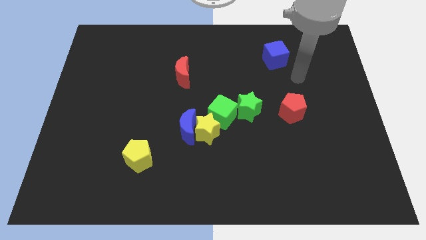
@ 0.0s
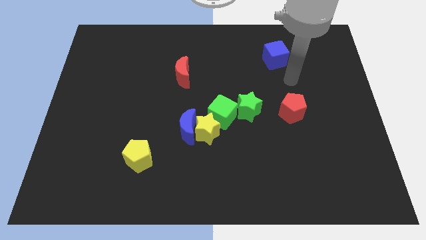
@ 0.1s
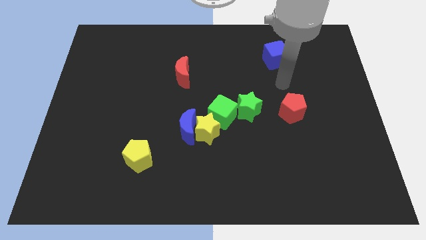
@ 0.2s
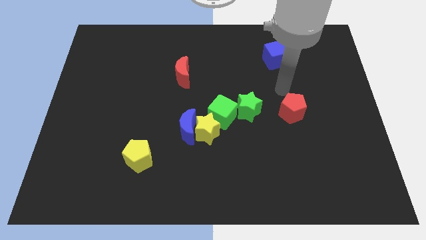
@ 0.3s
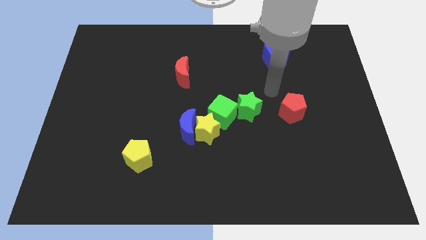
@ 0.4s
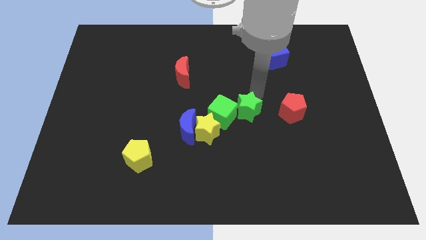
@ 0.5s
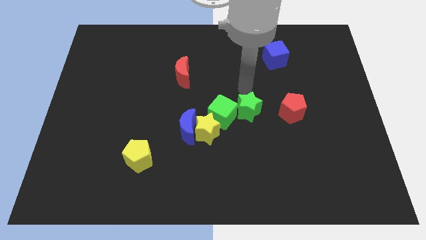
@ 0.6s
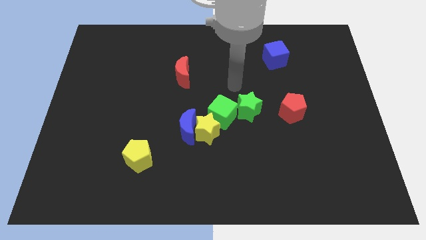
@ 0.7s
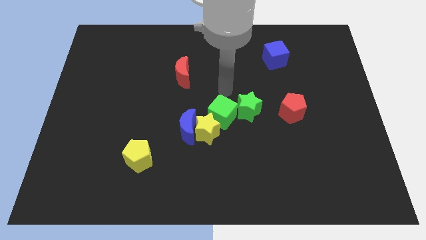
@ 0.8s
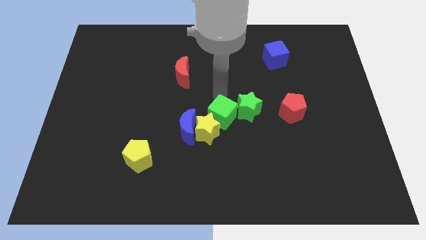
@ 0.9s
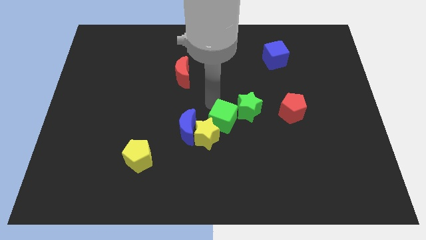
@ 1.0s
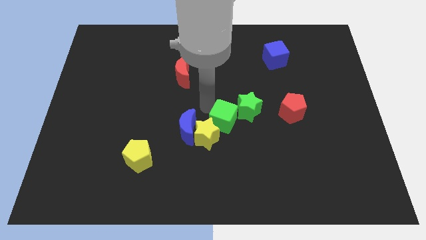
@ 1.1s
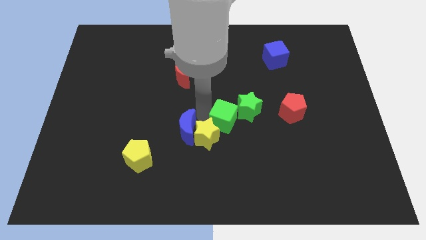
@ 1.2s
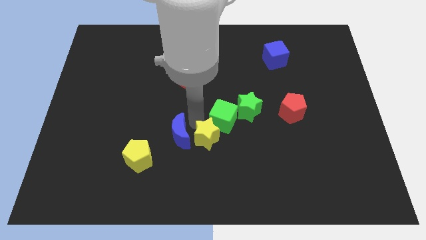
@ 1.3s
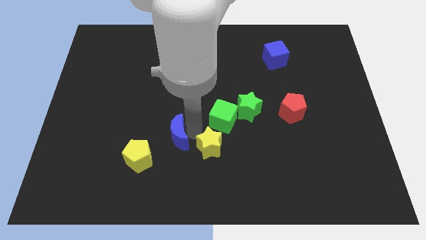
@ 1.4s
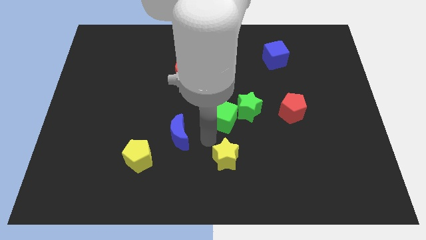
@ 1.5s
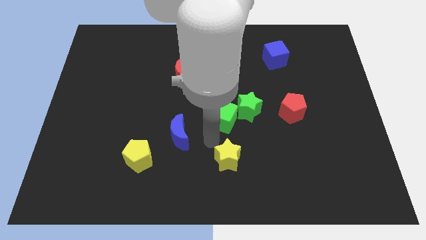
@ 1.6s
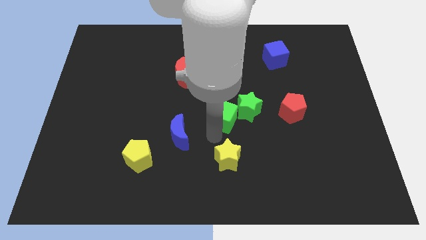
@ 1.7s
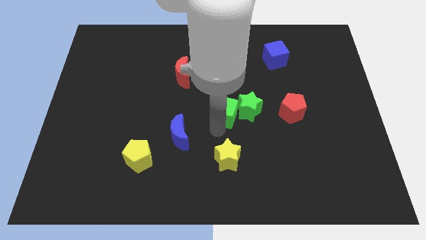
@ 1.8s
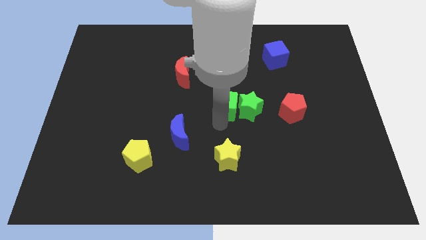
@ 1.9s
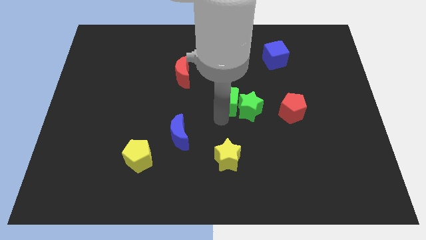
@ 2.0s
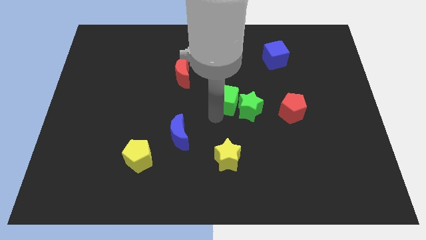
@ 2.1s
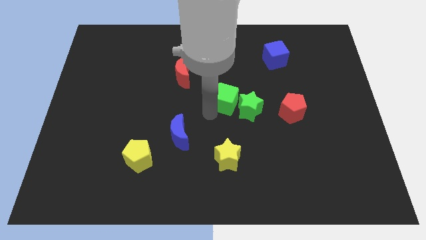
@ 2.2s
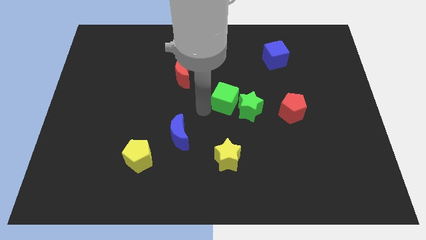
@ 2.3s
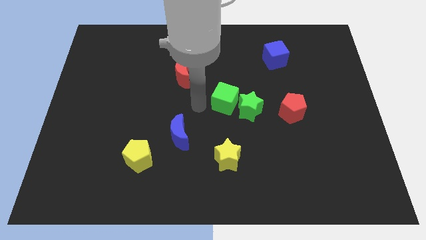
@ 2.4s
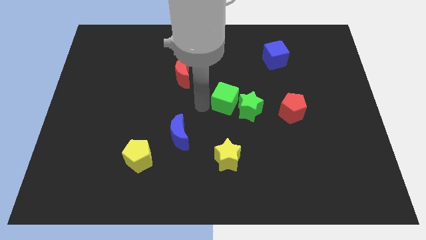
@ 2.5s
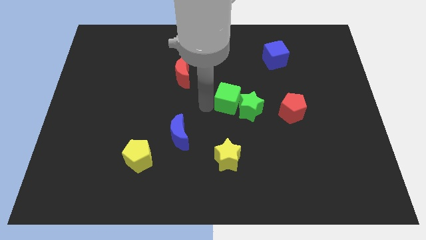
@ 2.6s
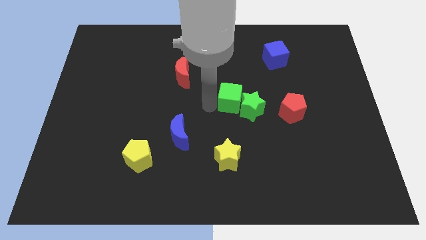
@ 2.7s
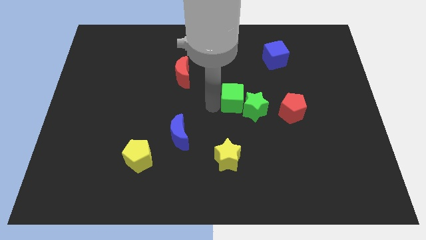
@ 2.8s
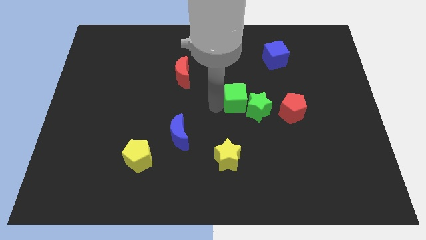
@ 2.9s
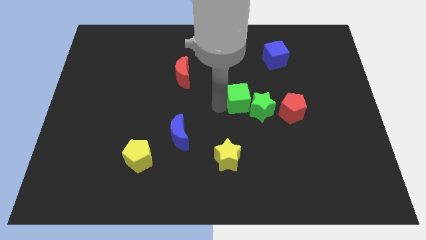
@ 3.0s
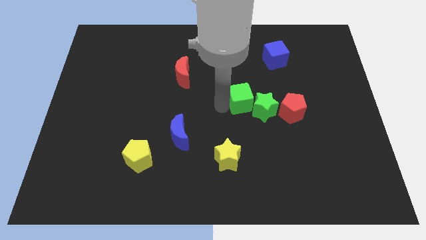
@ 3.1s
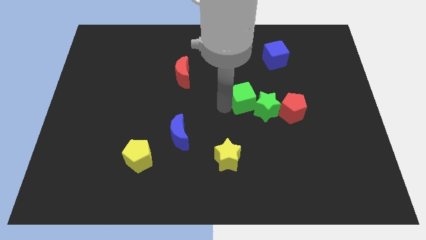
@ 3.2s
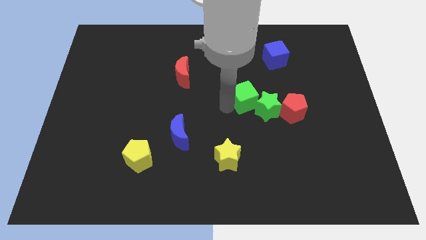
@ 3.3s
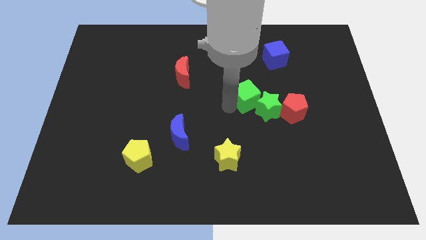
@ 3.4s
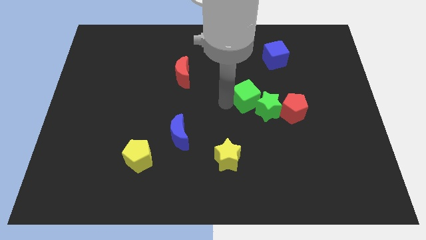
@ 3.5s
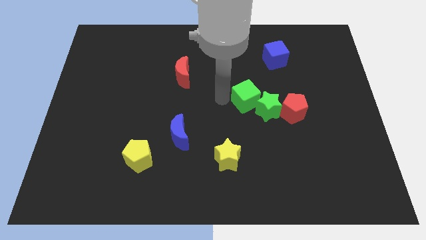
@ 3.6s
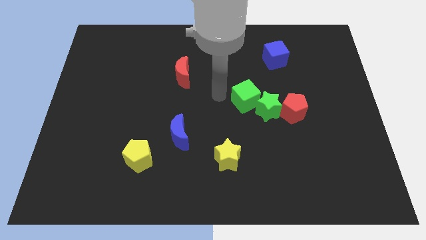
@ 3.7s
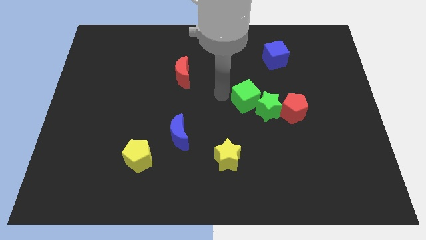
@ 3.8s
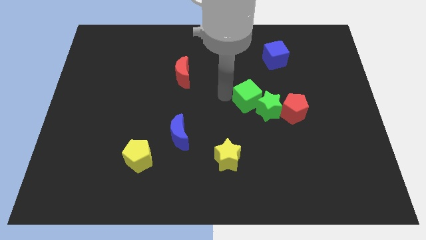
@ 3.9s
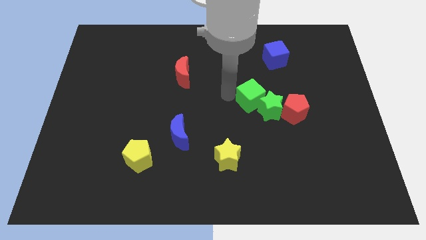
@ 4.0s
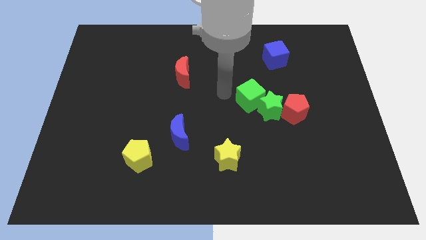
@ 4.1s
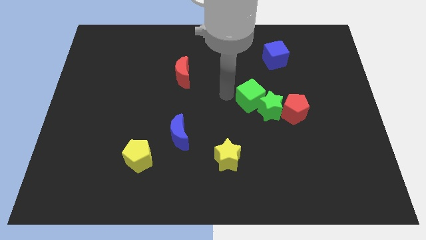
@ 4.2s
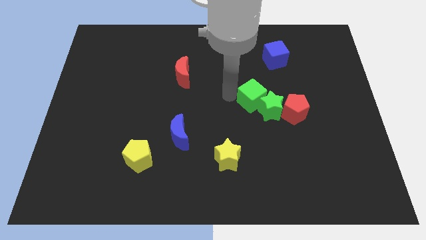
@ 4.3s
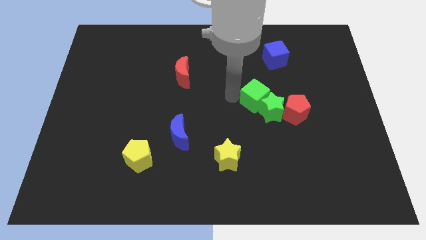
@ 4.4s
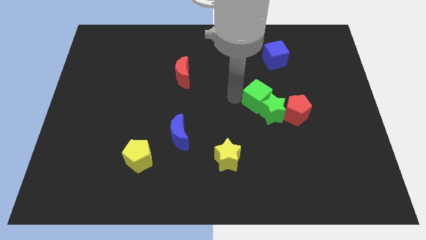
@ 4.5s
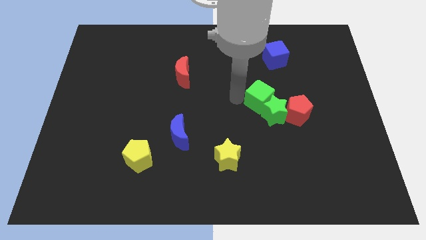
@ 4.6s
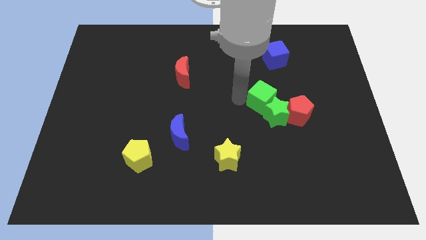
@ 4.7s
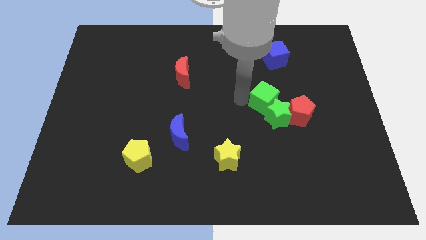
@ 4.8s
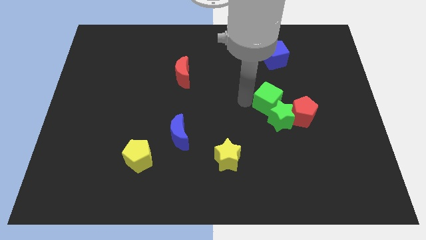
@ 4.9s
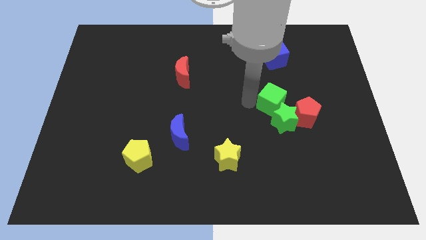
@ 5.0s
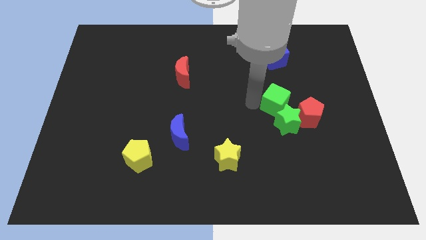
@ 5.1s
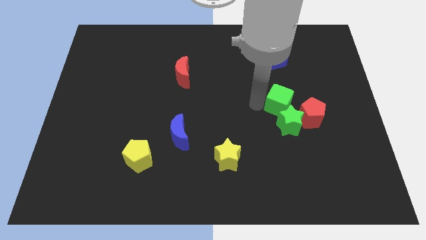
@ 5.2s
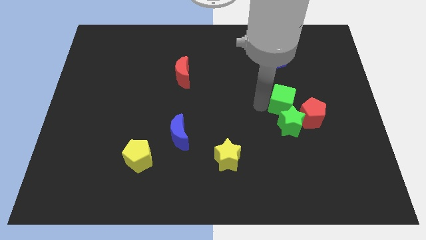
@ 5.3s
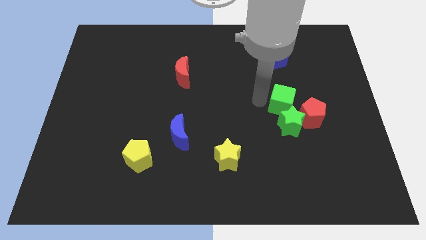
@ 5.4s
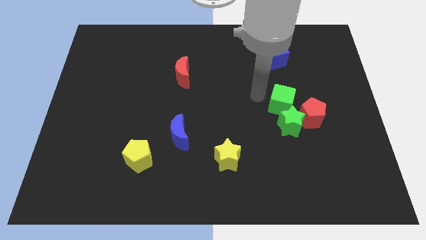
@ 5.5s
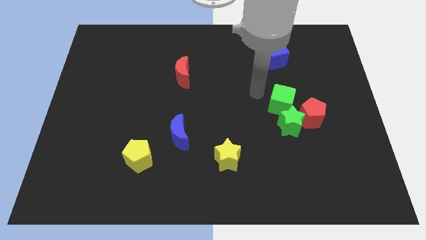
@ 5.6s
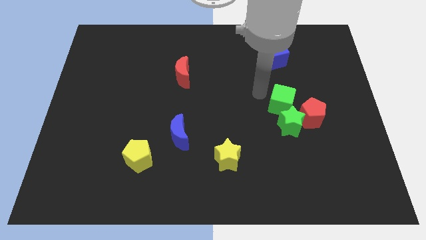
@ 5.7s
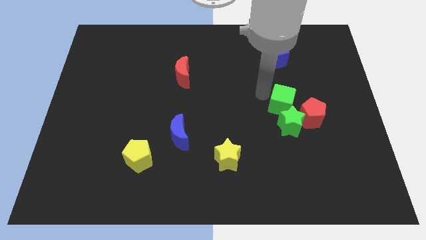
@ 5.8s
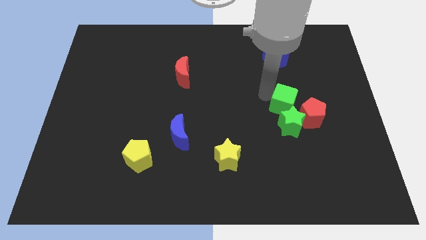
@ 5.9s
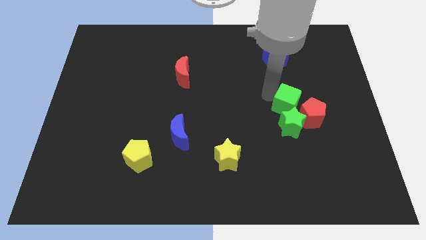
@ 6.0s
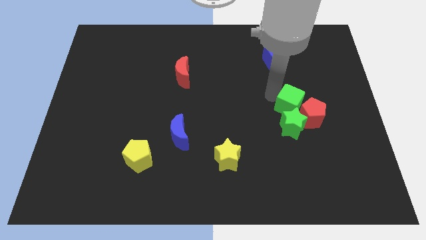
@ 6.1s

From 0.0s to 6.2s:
move the green cube to the red pentagon

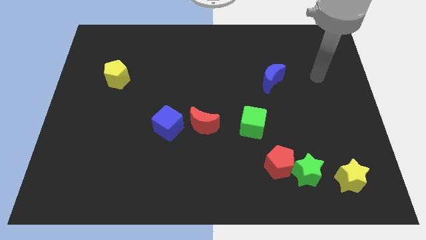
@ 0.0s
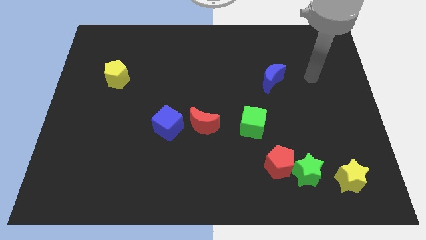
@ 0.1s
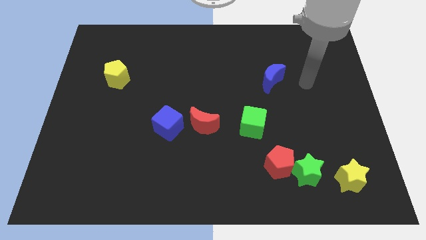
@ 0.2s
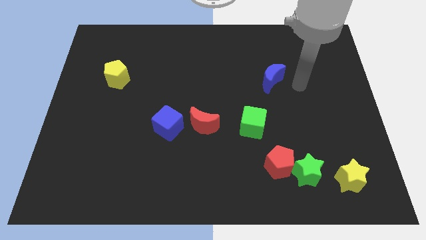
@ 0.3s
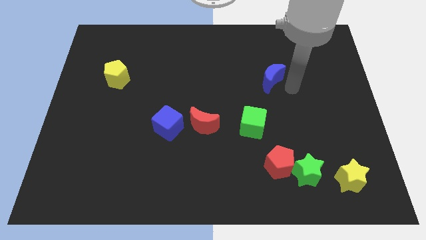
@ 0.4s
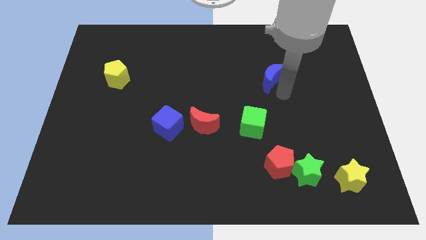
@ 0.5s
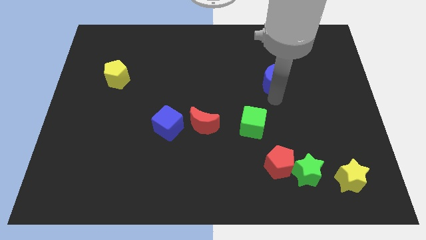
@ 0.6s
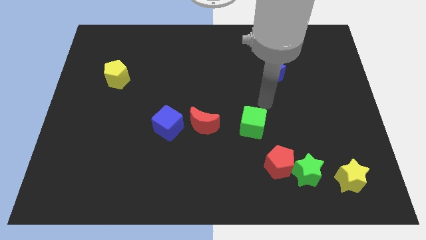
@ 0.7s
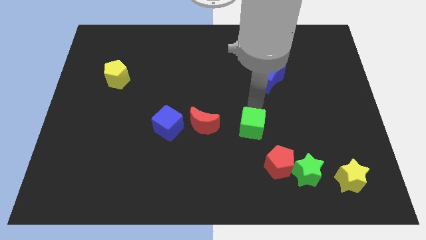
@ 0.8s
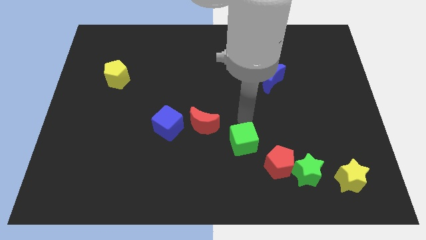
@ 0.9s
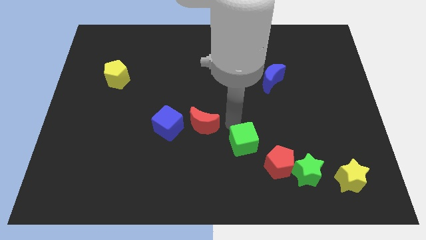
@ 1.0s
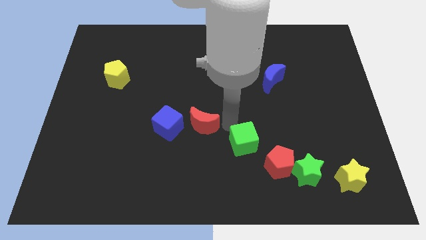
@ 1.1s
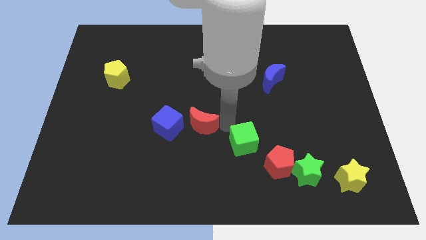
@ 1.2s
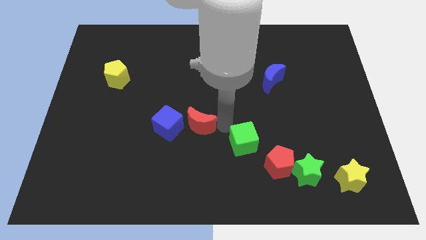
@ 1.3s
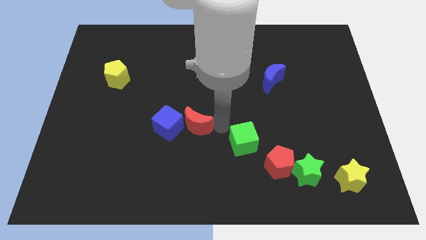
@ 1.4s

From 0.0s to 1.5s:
move the red moon to the blue cube

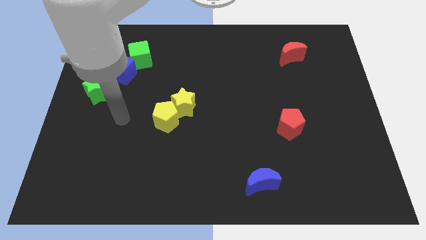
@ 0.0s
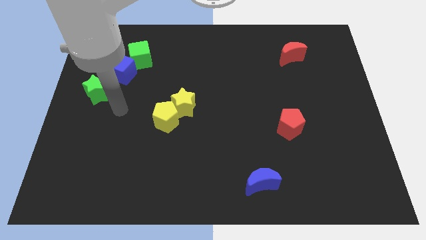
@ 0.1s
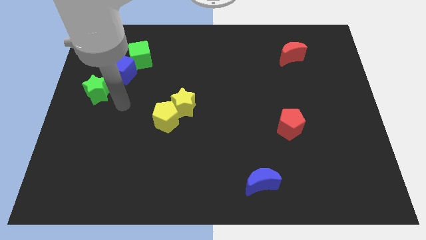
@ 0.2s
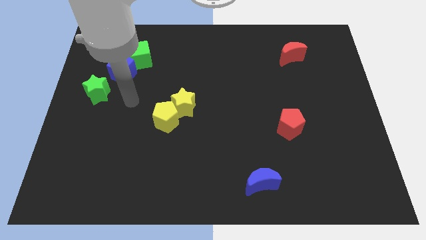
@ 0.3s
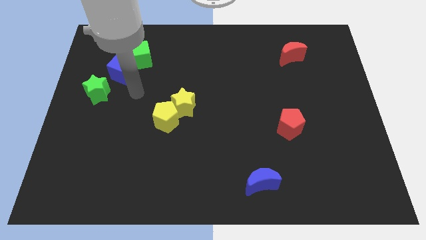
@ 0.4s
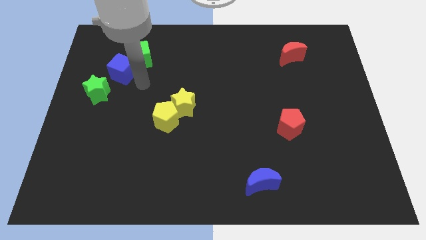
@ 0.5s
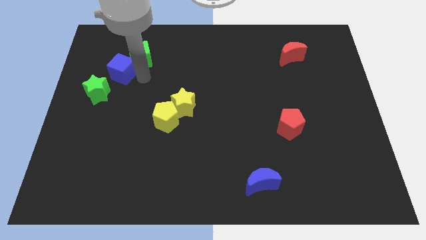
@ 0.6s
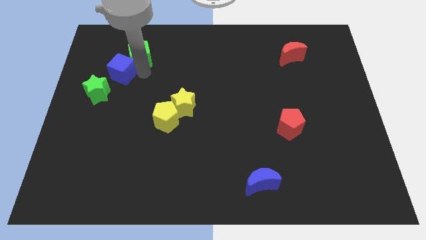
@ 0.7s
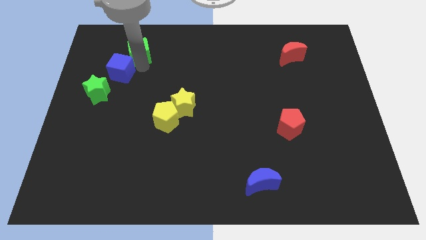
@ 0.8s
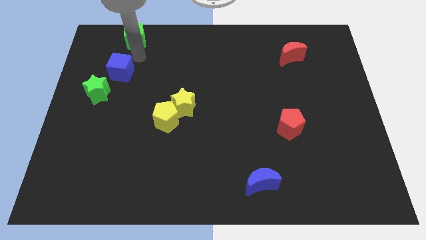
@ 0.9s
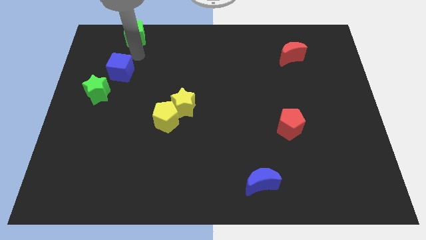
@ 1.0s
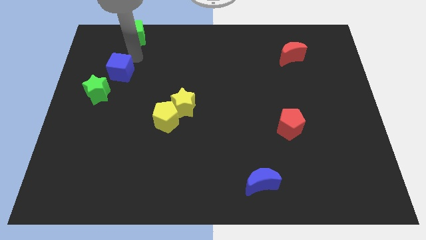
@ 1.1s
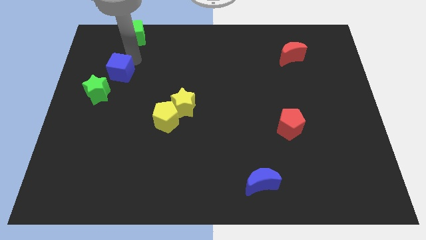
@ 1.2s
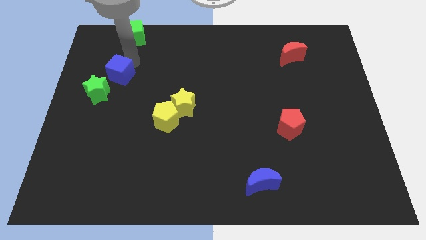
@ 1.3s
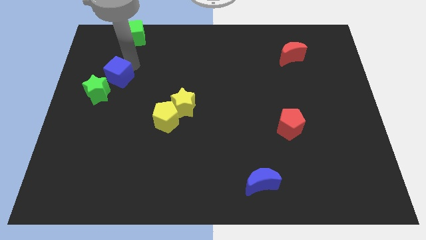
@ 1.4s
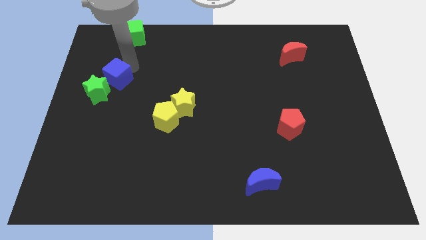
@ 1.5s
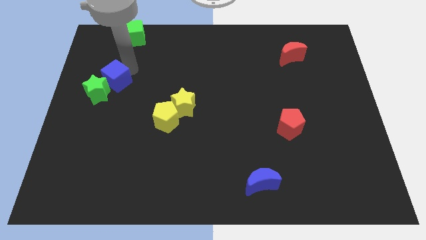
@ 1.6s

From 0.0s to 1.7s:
push the blue cube to the green star
